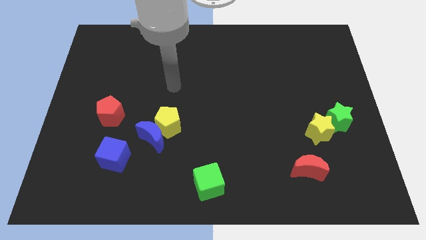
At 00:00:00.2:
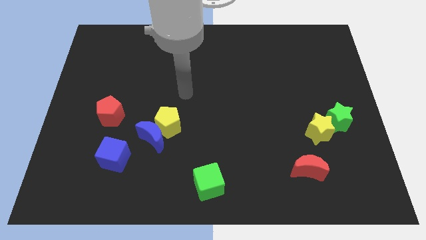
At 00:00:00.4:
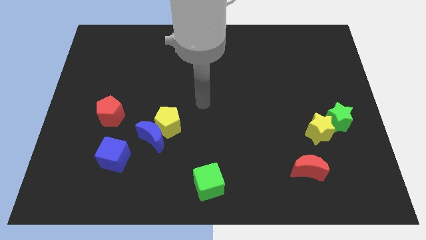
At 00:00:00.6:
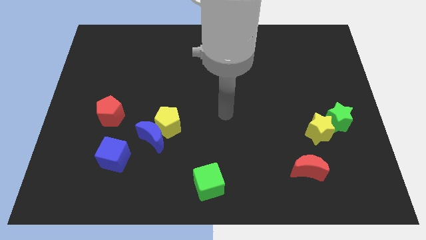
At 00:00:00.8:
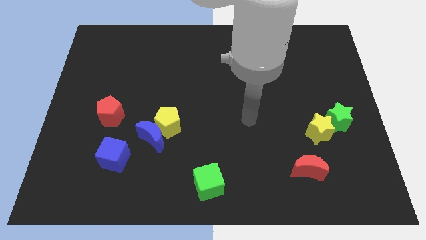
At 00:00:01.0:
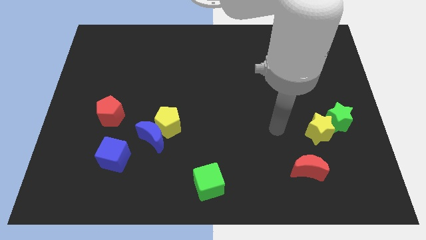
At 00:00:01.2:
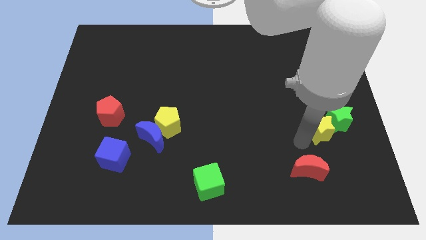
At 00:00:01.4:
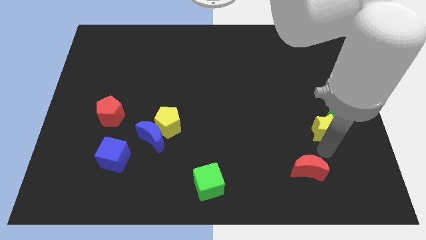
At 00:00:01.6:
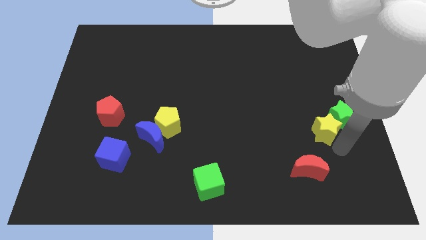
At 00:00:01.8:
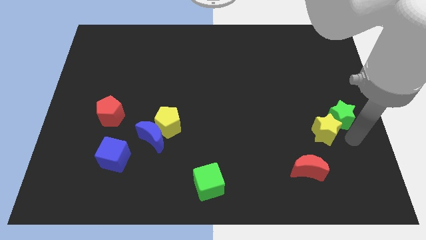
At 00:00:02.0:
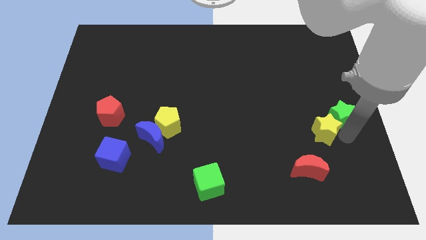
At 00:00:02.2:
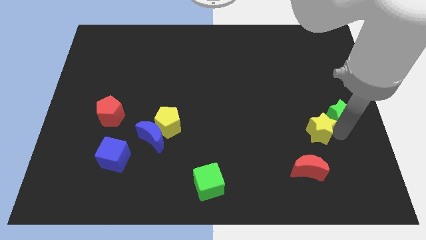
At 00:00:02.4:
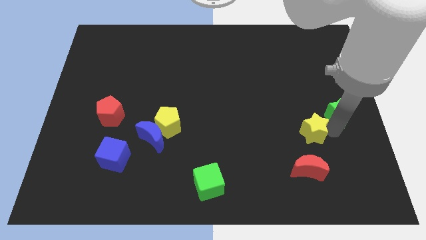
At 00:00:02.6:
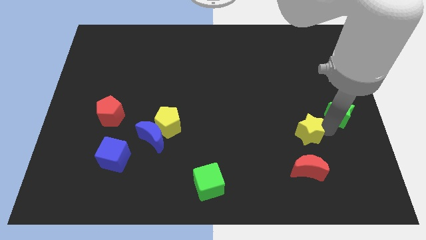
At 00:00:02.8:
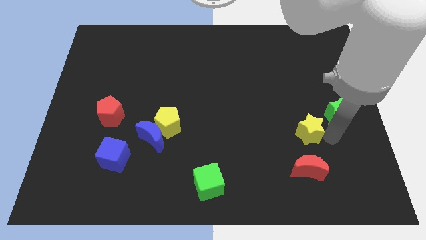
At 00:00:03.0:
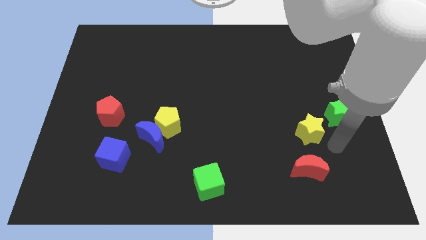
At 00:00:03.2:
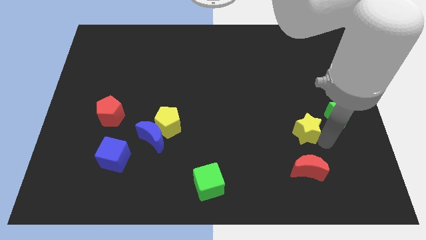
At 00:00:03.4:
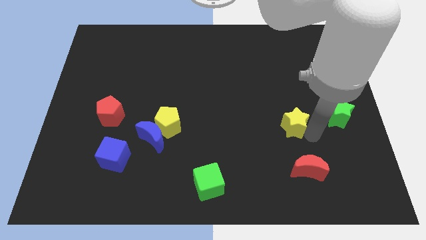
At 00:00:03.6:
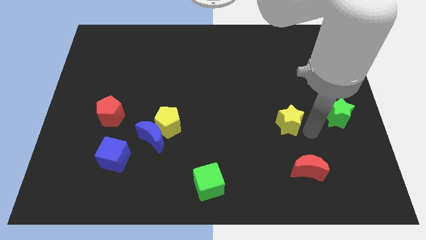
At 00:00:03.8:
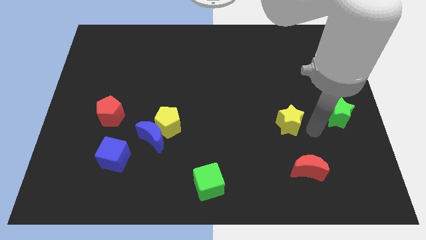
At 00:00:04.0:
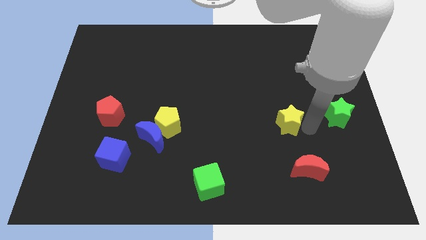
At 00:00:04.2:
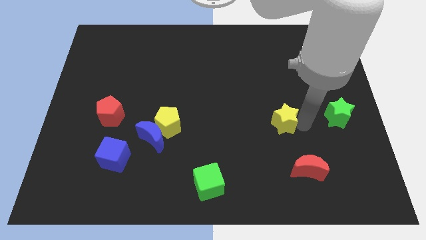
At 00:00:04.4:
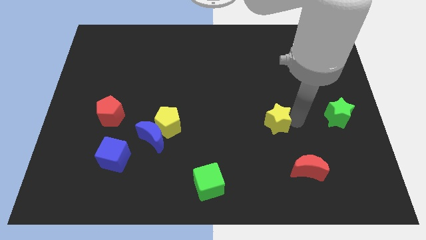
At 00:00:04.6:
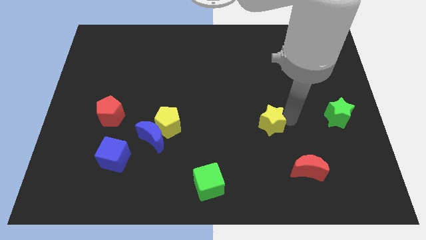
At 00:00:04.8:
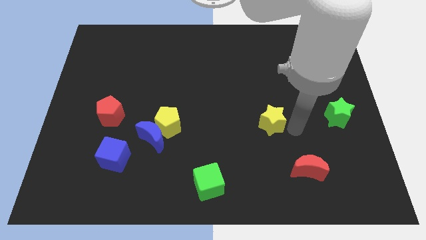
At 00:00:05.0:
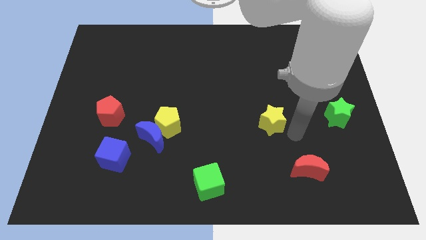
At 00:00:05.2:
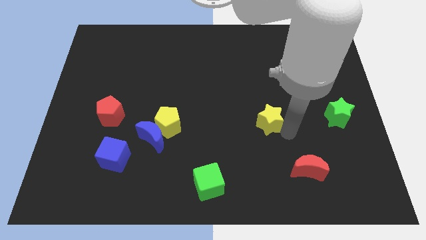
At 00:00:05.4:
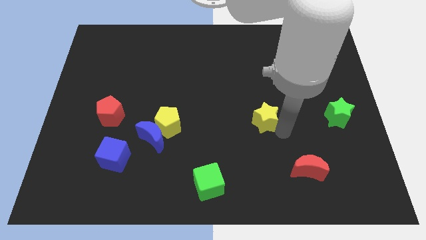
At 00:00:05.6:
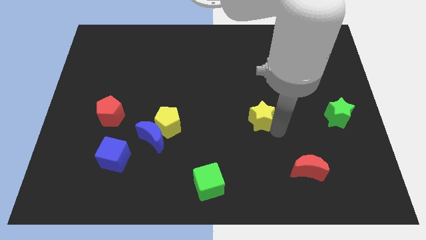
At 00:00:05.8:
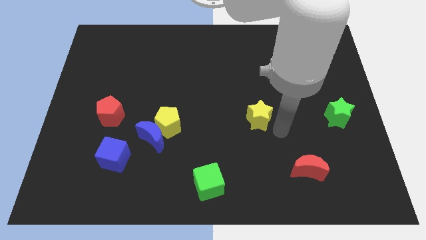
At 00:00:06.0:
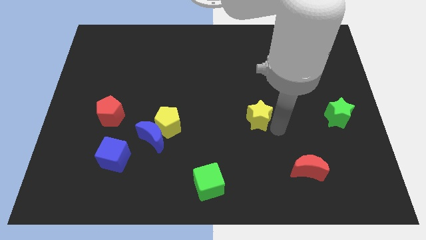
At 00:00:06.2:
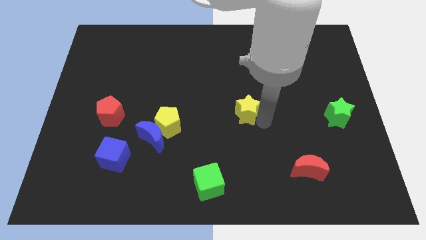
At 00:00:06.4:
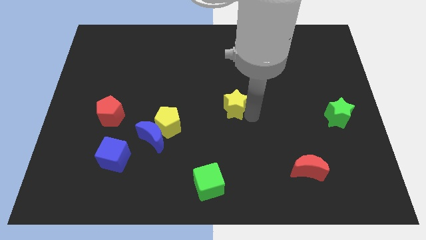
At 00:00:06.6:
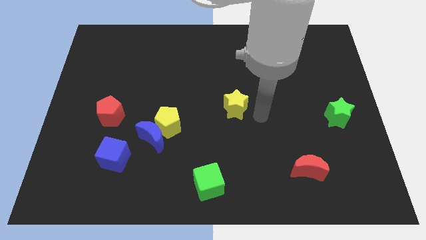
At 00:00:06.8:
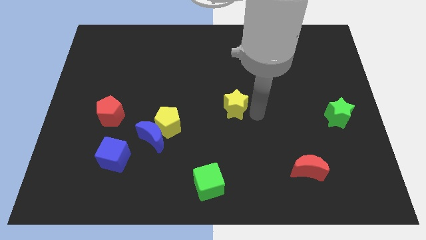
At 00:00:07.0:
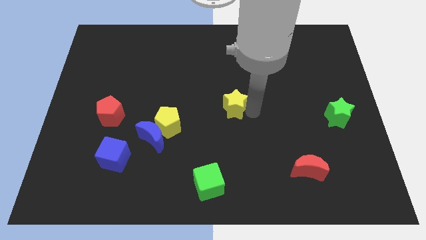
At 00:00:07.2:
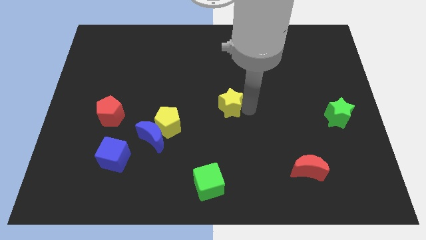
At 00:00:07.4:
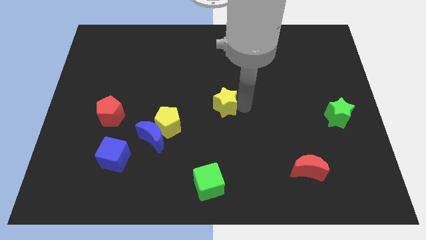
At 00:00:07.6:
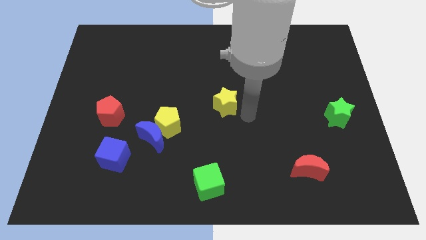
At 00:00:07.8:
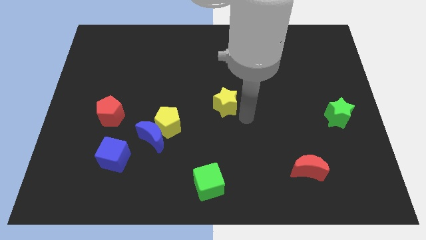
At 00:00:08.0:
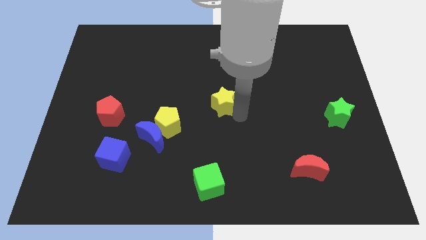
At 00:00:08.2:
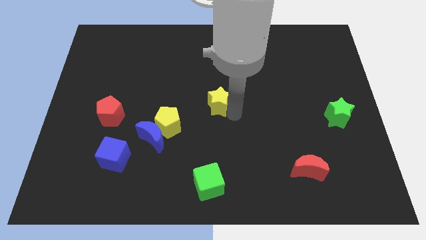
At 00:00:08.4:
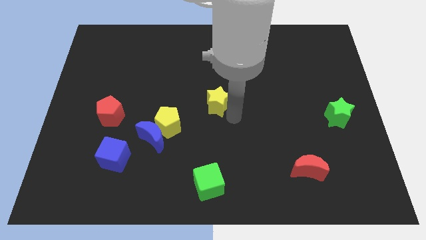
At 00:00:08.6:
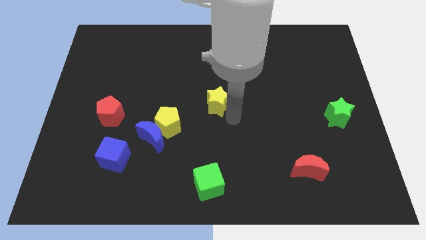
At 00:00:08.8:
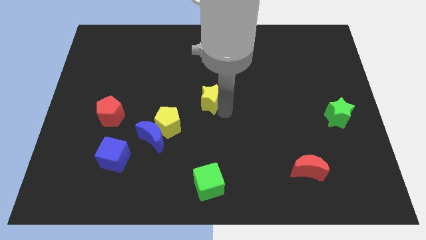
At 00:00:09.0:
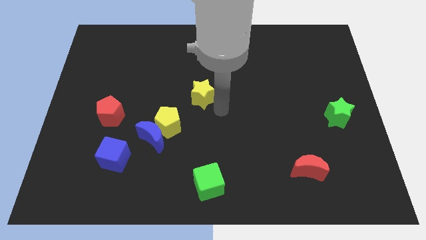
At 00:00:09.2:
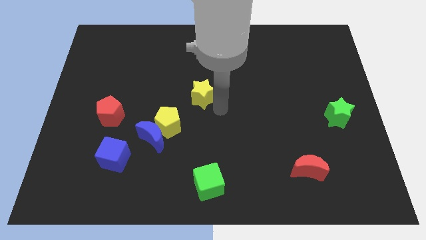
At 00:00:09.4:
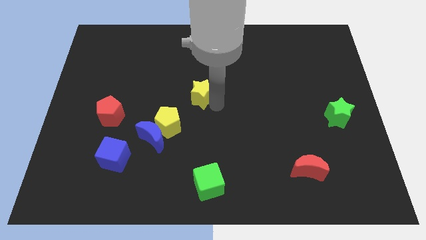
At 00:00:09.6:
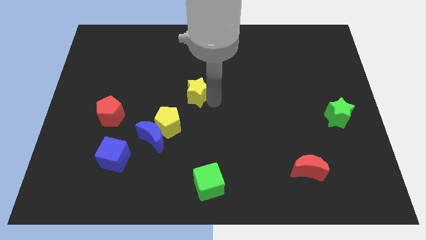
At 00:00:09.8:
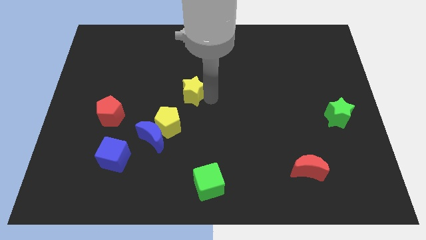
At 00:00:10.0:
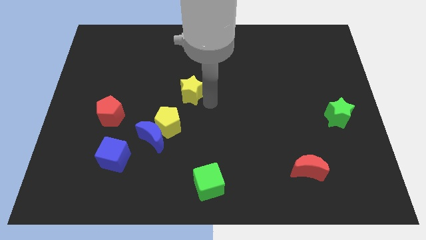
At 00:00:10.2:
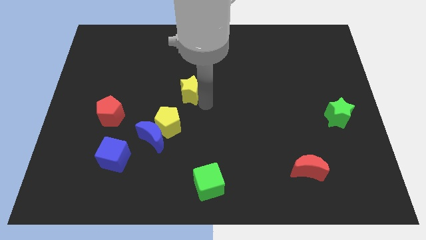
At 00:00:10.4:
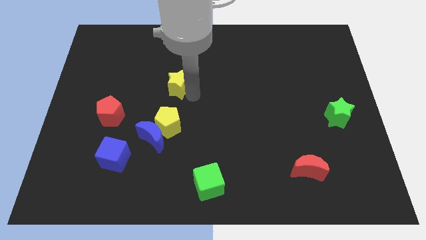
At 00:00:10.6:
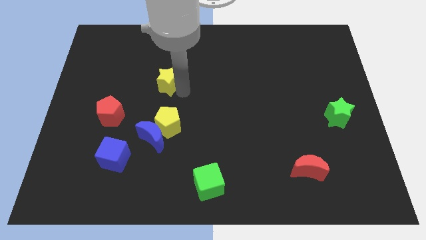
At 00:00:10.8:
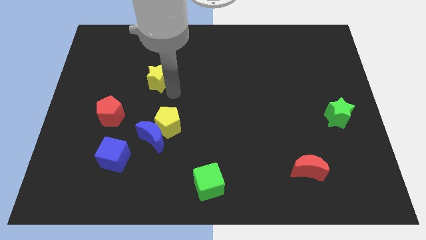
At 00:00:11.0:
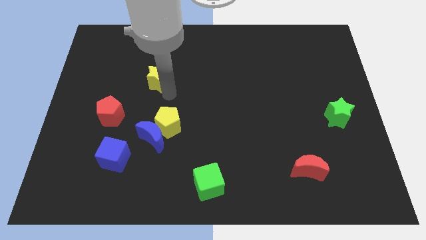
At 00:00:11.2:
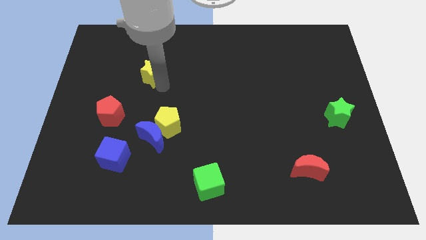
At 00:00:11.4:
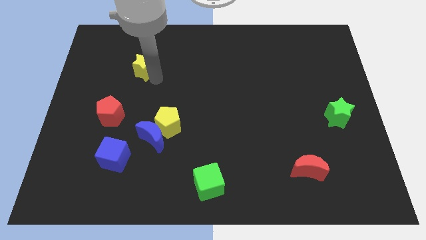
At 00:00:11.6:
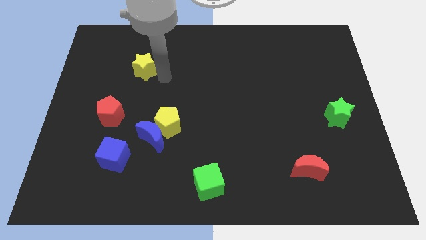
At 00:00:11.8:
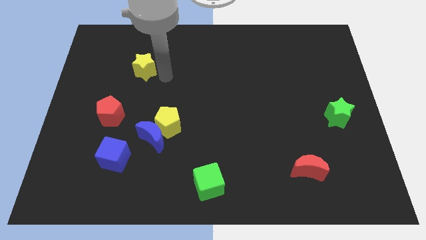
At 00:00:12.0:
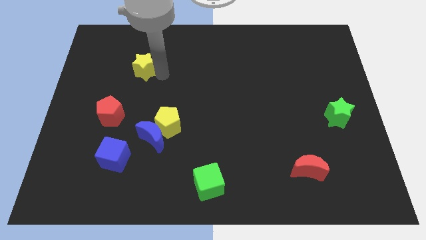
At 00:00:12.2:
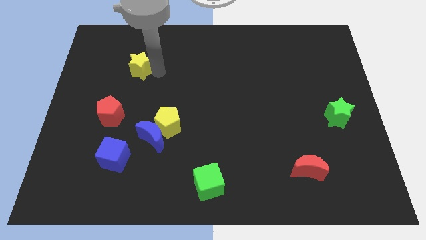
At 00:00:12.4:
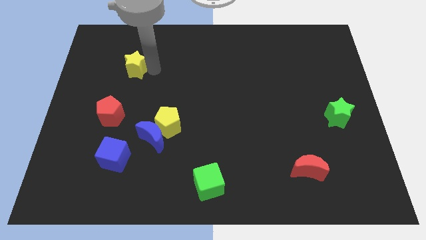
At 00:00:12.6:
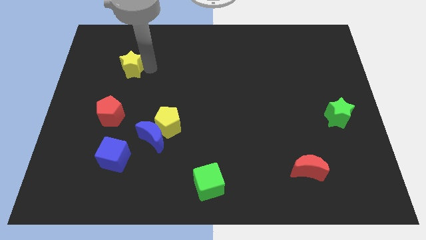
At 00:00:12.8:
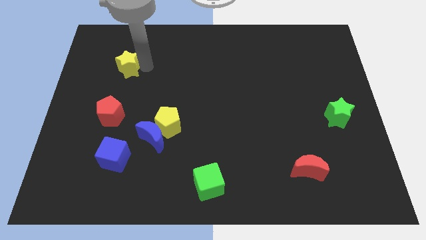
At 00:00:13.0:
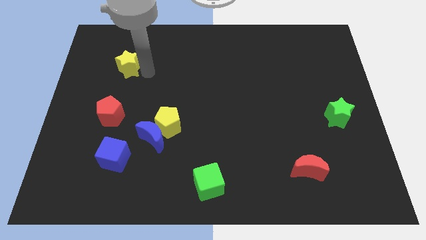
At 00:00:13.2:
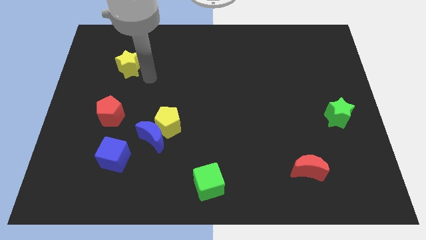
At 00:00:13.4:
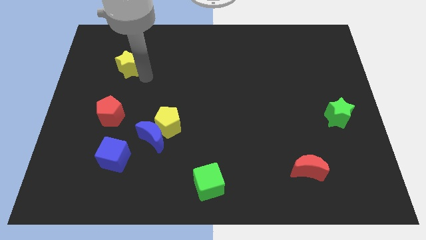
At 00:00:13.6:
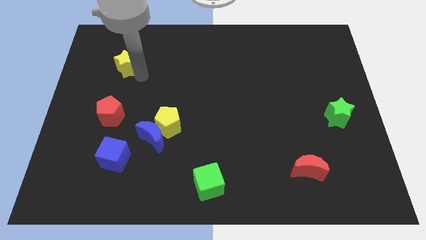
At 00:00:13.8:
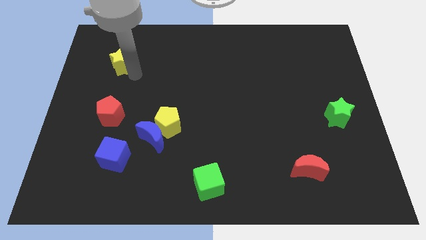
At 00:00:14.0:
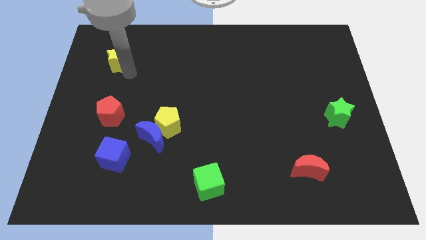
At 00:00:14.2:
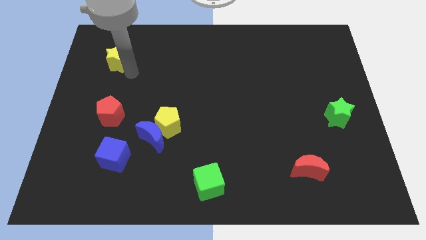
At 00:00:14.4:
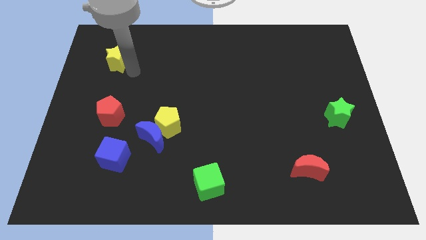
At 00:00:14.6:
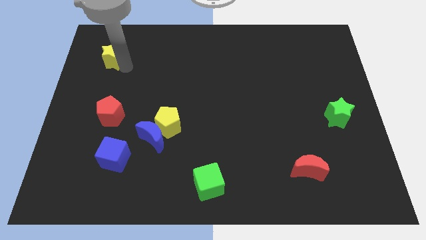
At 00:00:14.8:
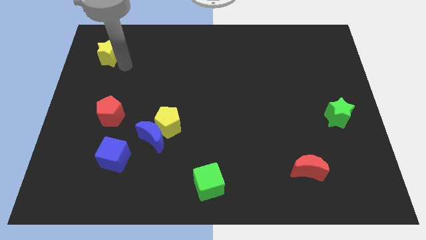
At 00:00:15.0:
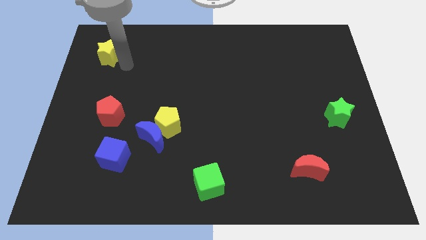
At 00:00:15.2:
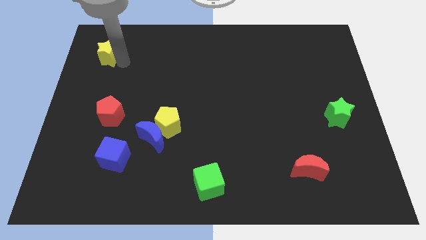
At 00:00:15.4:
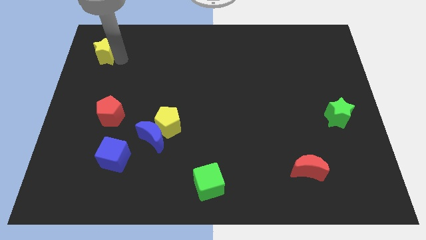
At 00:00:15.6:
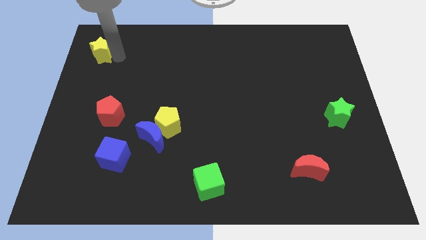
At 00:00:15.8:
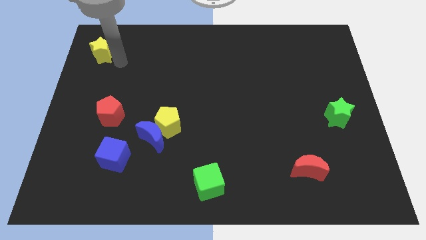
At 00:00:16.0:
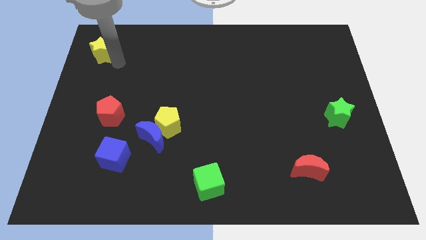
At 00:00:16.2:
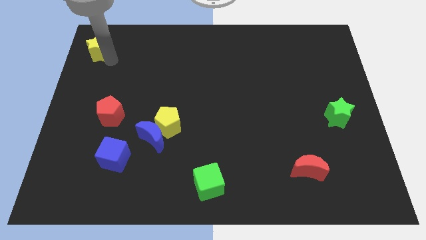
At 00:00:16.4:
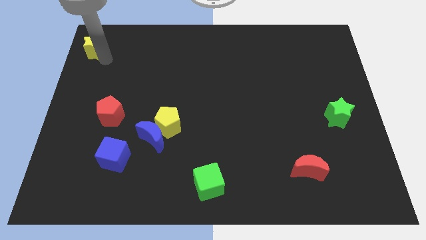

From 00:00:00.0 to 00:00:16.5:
push the yellow star to the top left of the board
